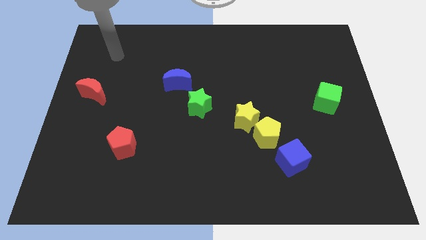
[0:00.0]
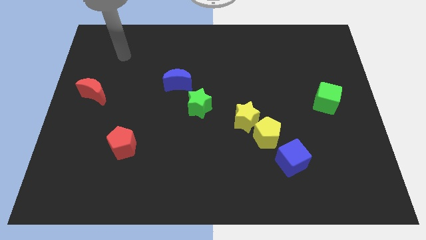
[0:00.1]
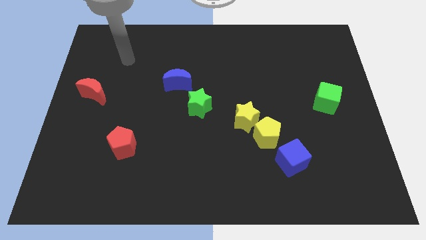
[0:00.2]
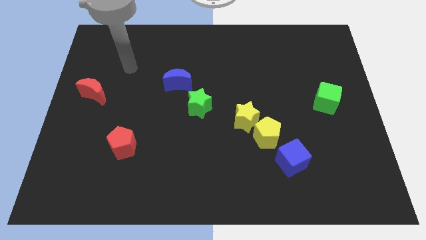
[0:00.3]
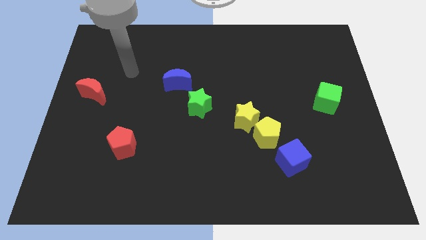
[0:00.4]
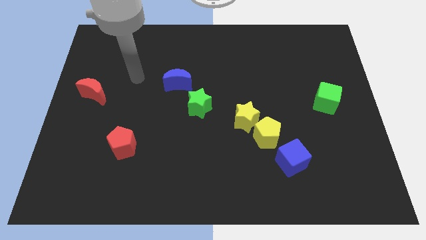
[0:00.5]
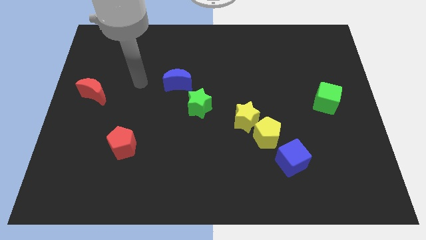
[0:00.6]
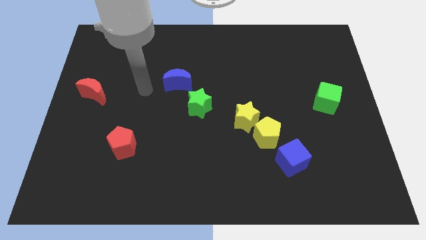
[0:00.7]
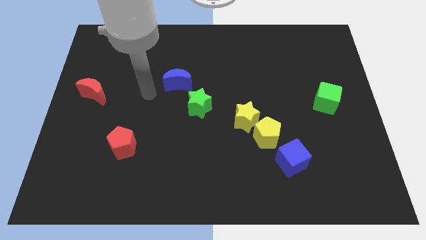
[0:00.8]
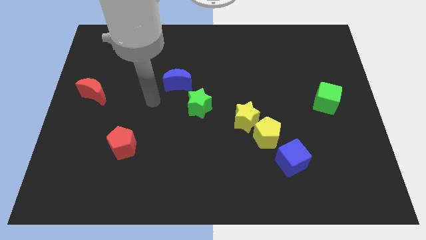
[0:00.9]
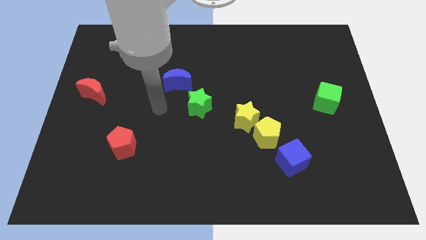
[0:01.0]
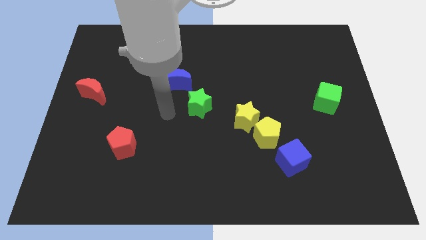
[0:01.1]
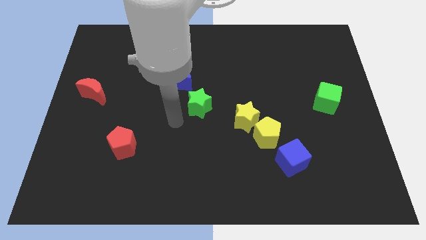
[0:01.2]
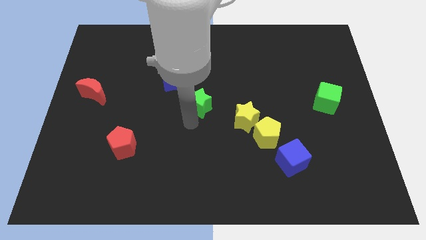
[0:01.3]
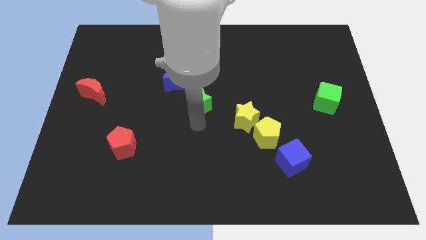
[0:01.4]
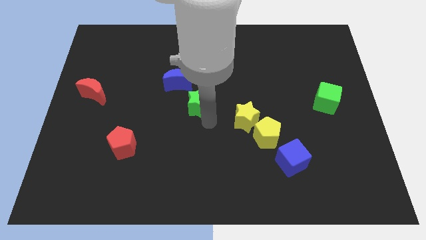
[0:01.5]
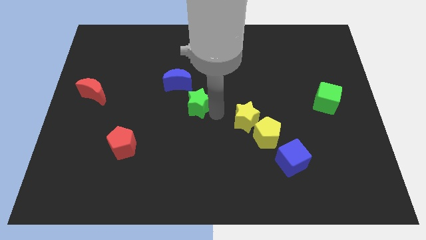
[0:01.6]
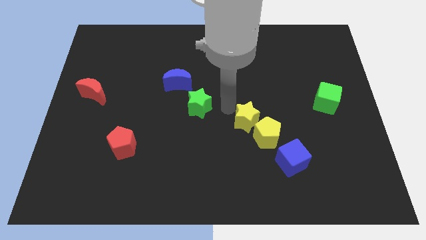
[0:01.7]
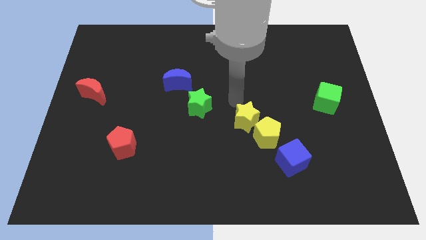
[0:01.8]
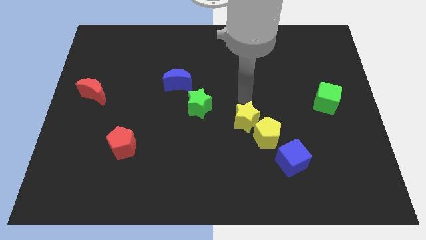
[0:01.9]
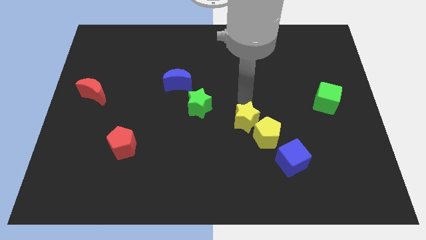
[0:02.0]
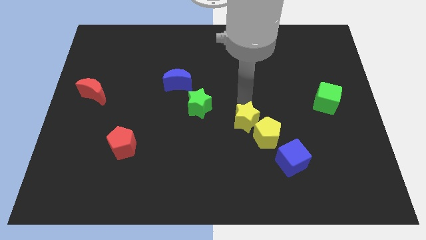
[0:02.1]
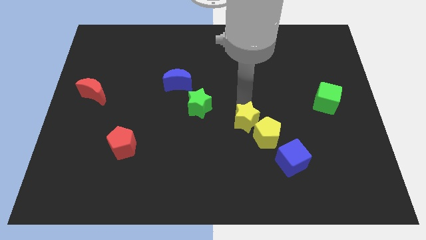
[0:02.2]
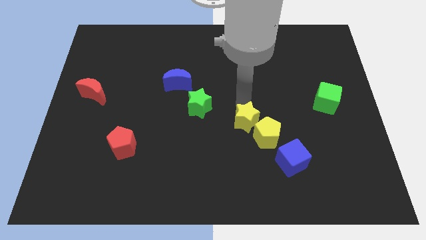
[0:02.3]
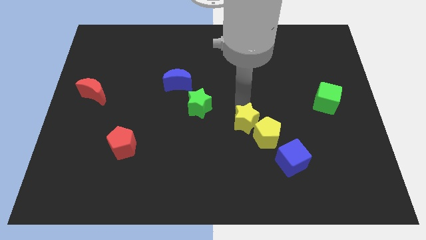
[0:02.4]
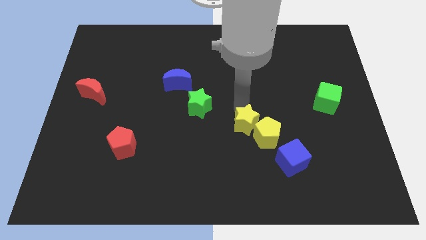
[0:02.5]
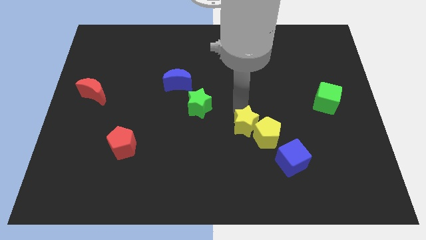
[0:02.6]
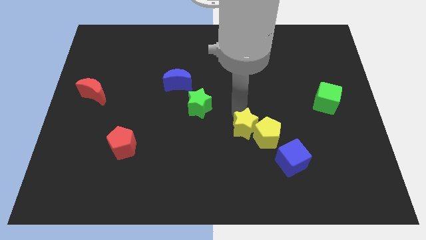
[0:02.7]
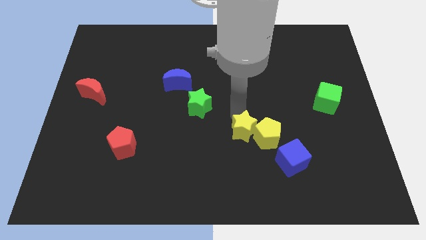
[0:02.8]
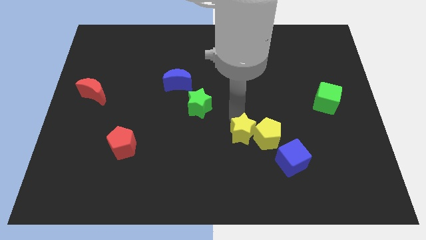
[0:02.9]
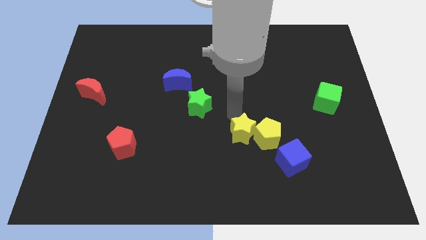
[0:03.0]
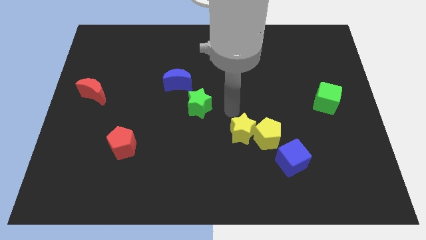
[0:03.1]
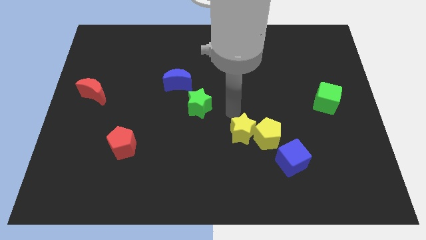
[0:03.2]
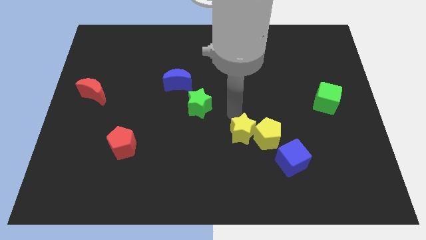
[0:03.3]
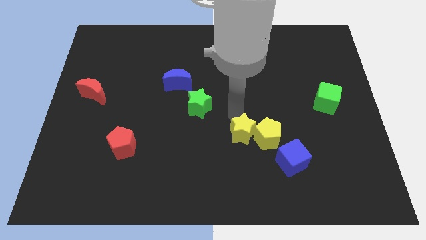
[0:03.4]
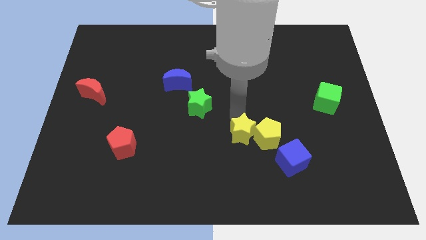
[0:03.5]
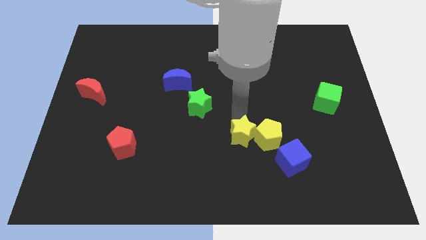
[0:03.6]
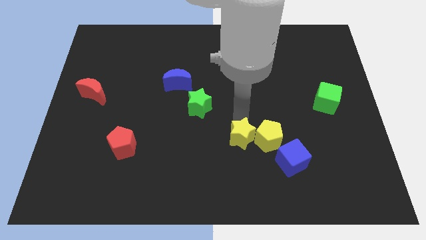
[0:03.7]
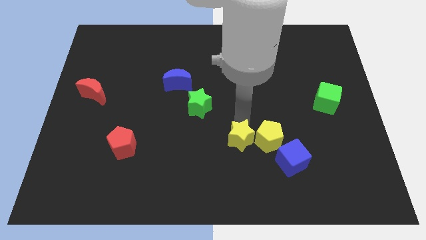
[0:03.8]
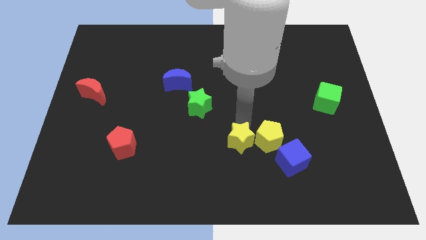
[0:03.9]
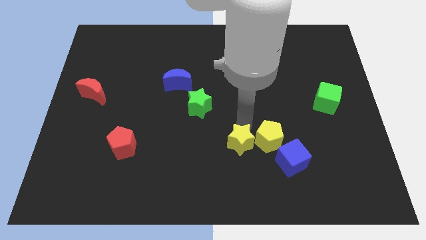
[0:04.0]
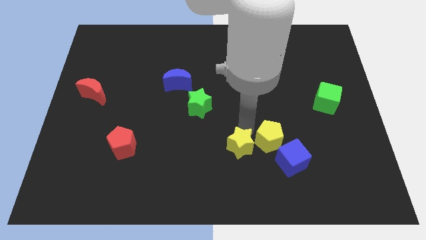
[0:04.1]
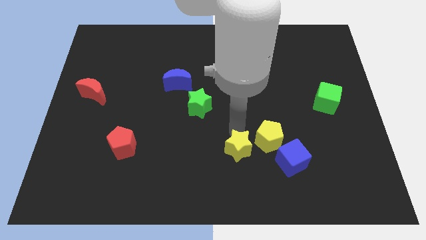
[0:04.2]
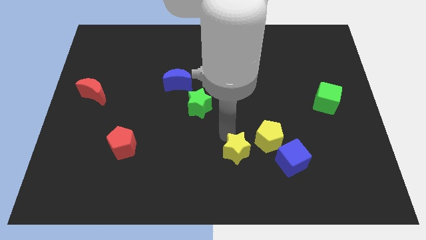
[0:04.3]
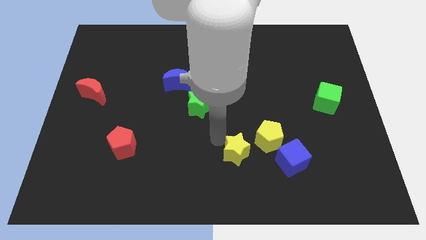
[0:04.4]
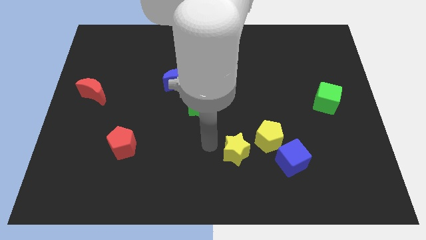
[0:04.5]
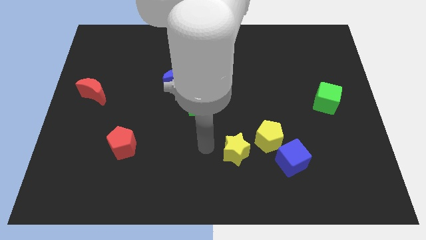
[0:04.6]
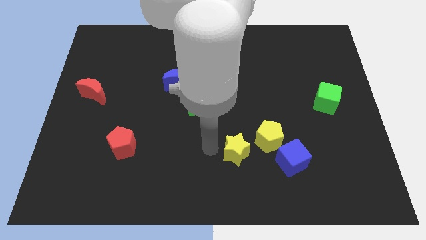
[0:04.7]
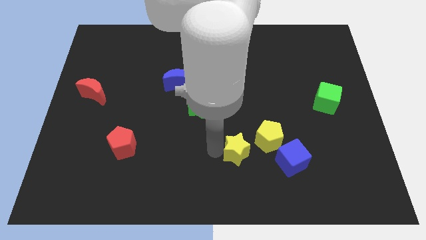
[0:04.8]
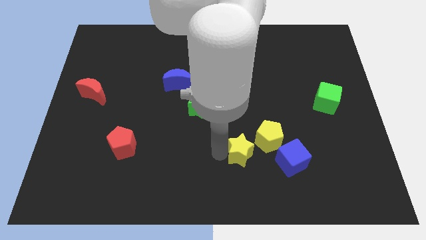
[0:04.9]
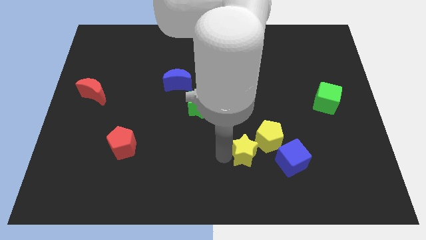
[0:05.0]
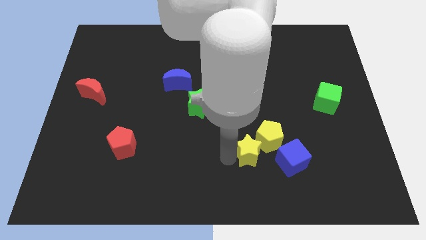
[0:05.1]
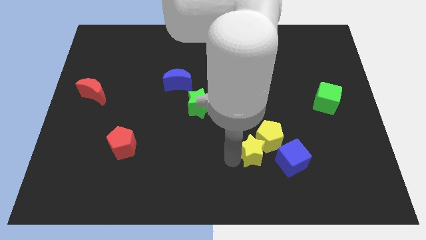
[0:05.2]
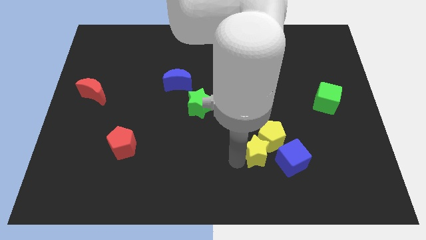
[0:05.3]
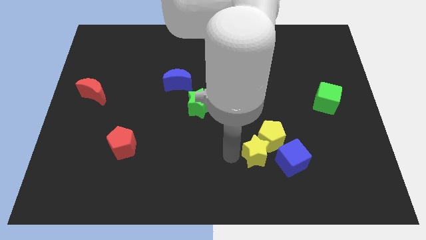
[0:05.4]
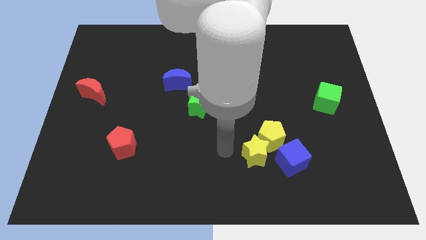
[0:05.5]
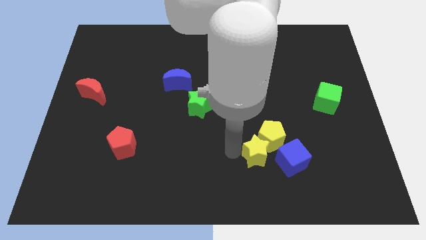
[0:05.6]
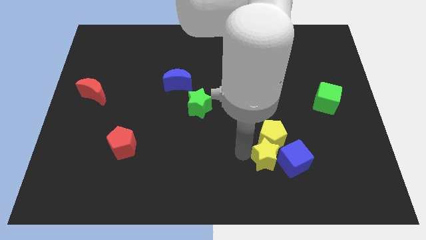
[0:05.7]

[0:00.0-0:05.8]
put the yellow star next to the blue cube
